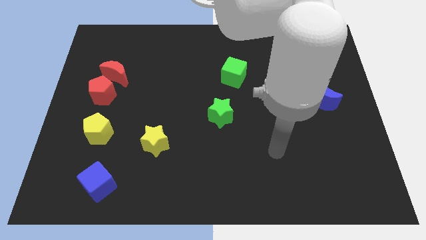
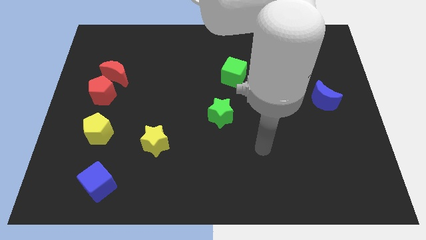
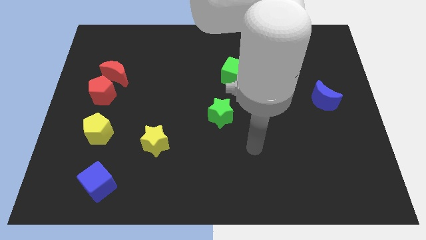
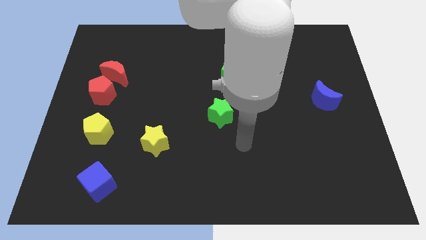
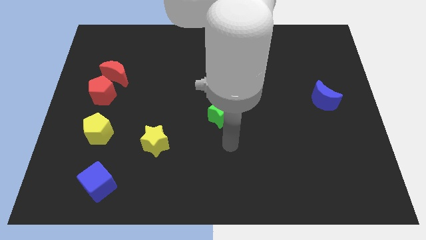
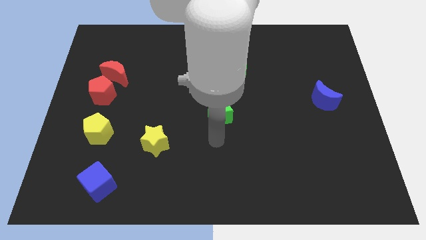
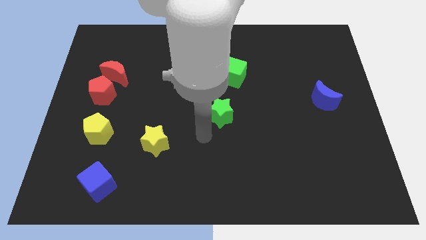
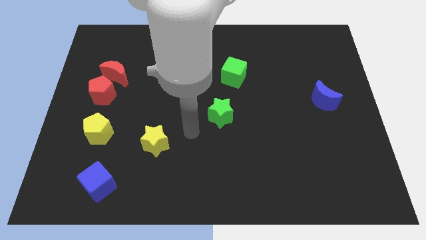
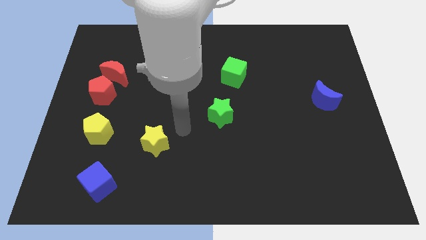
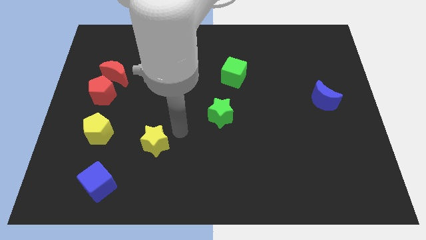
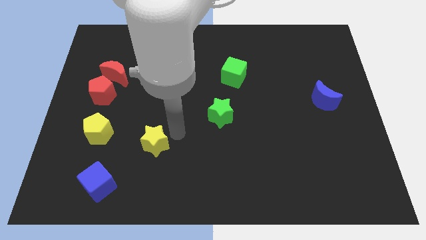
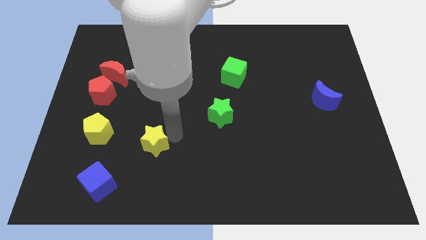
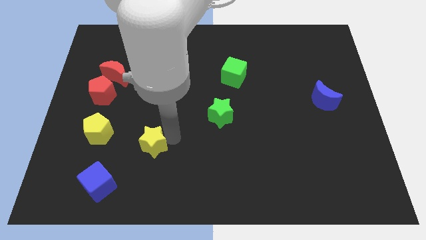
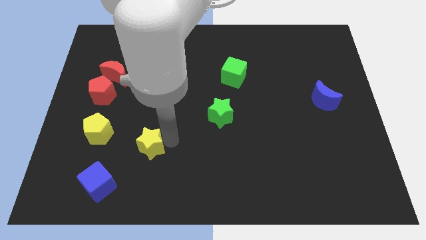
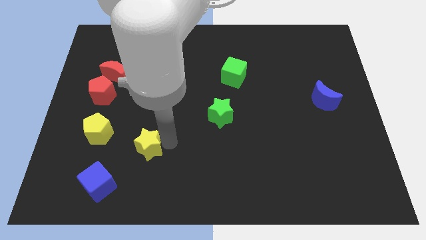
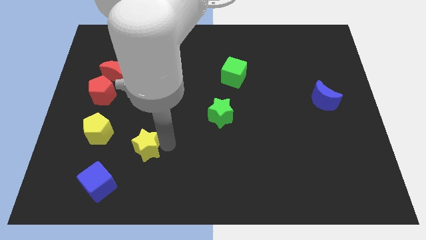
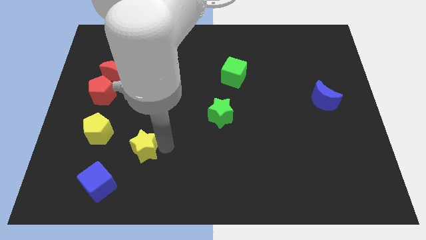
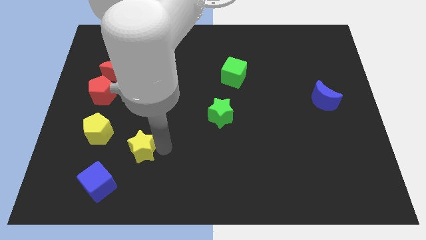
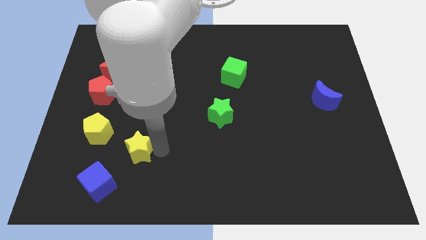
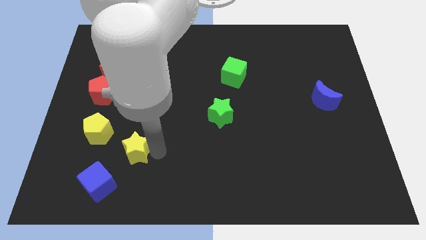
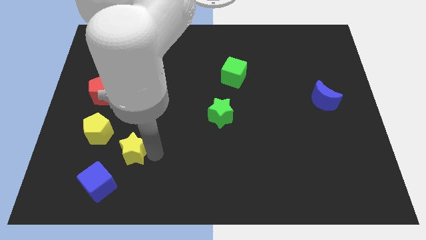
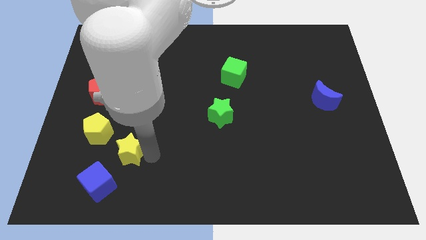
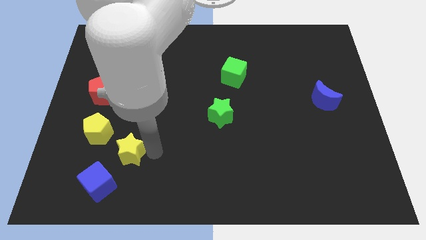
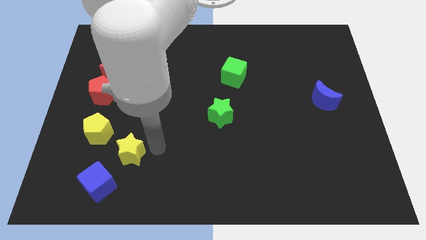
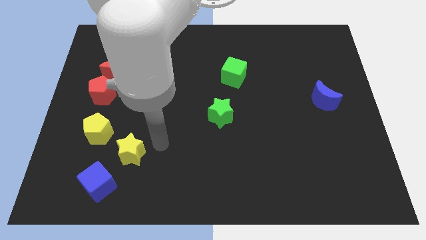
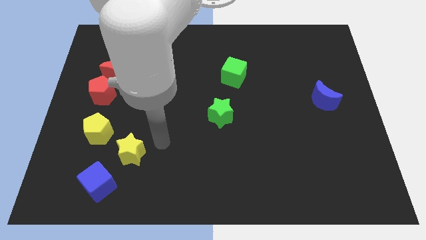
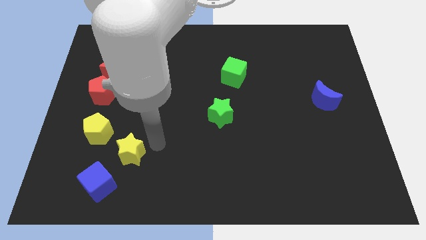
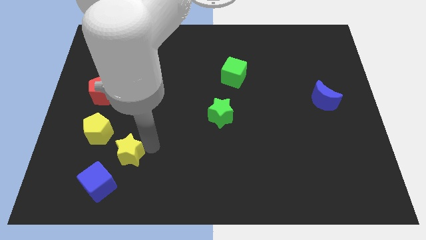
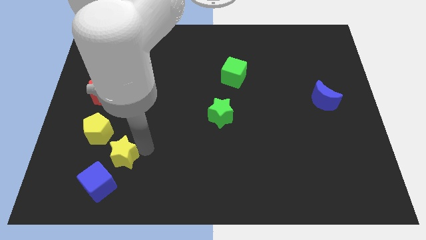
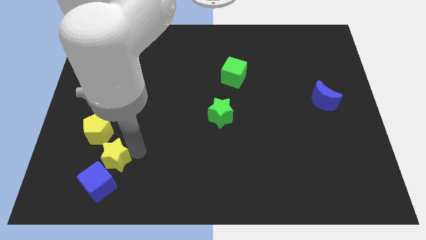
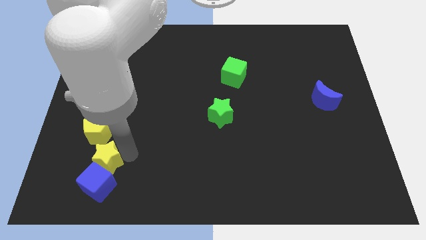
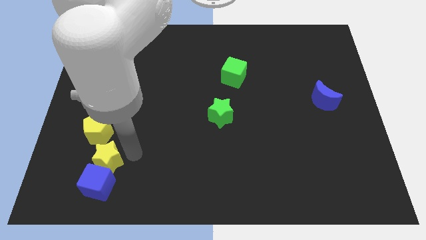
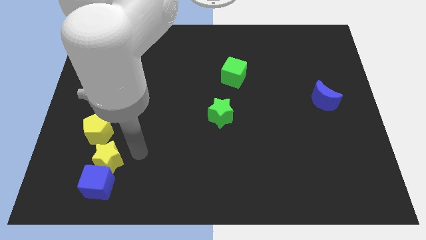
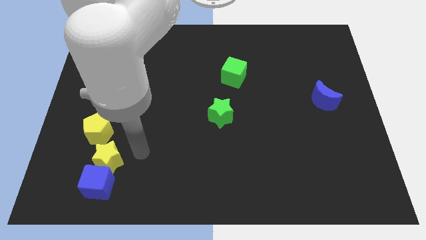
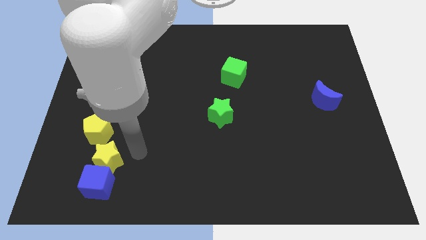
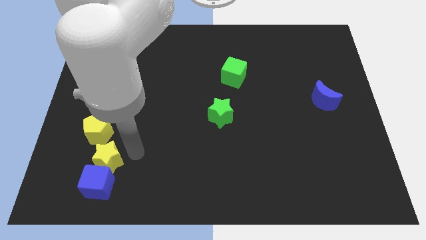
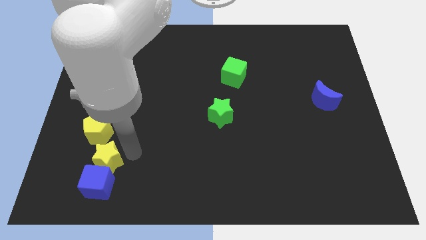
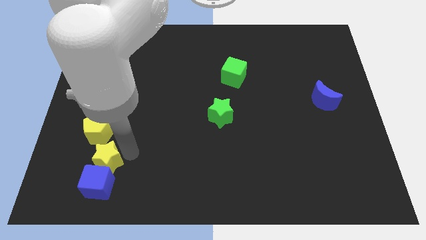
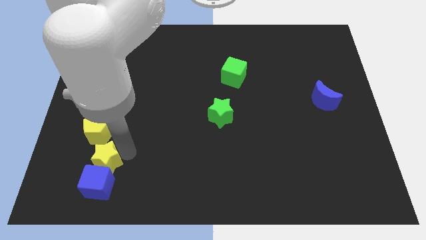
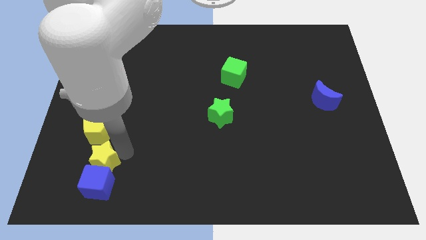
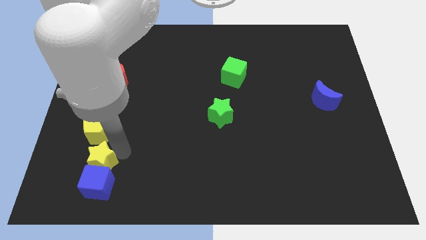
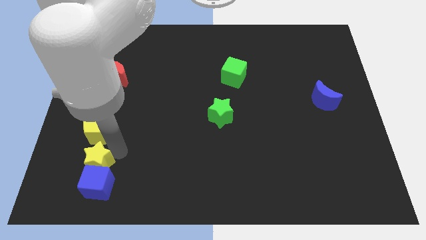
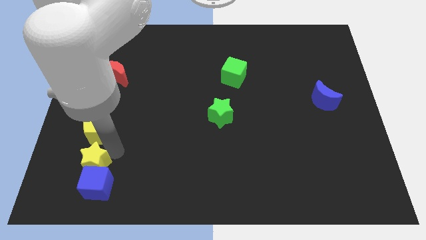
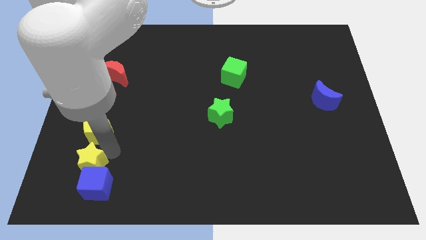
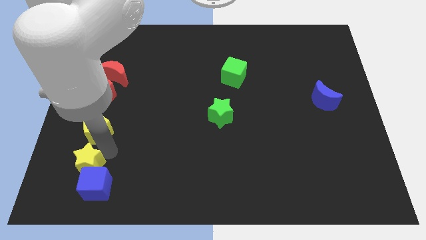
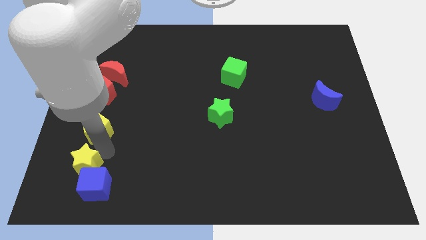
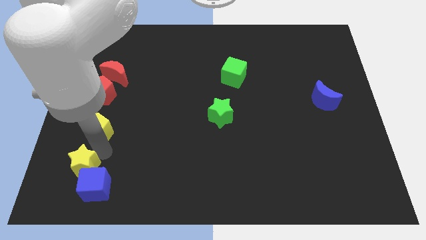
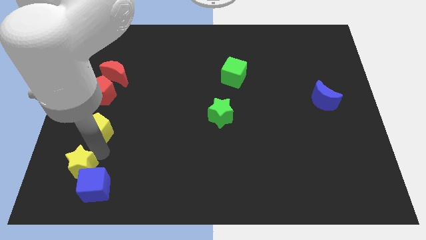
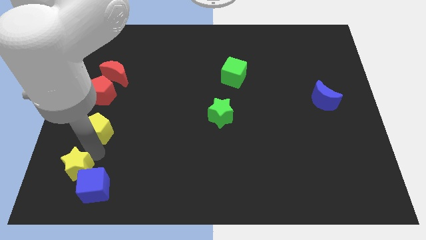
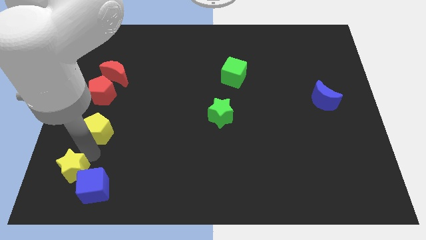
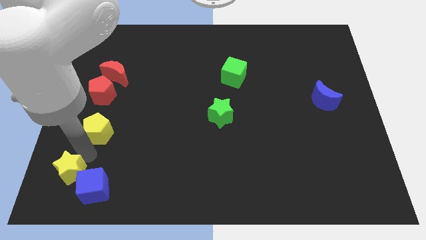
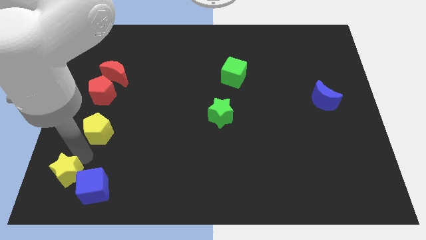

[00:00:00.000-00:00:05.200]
slide the yellow star to the bottom left

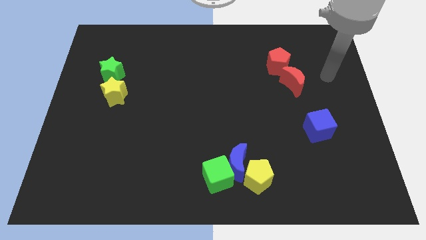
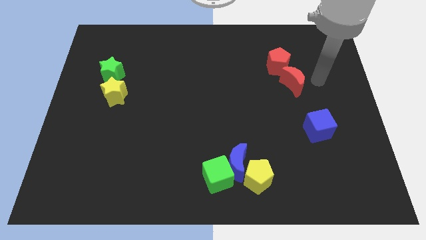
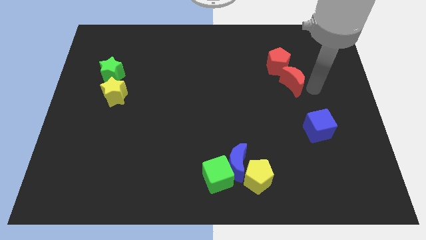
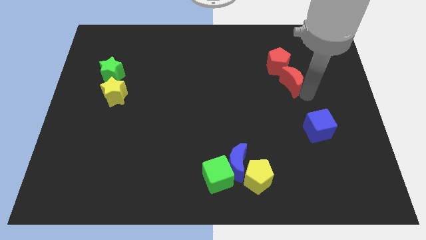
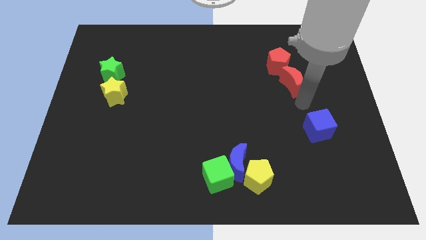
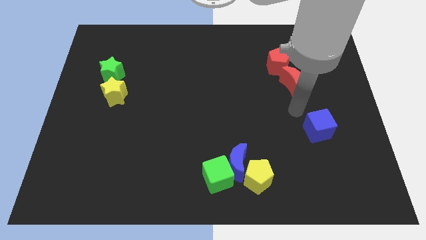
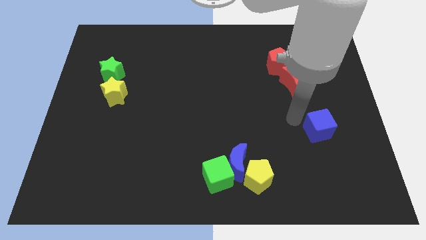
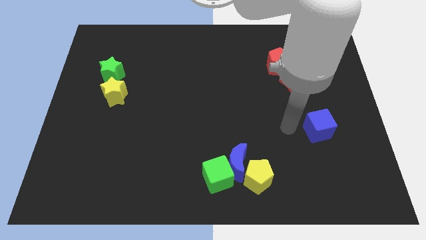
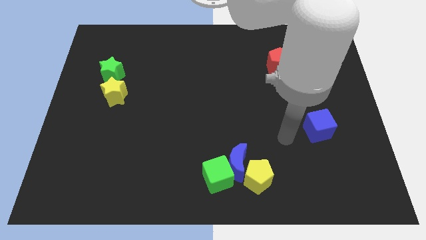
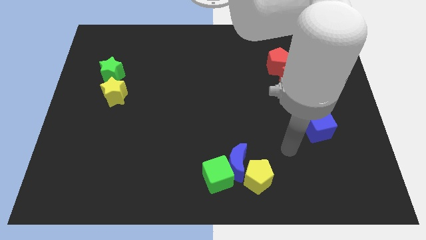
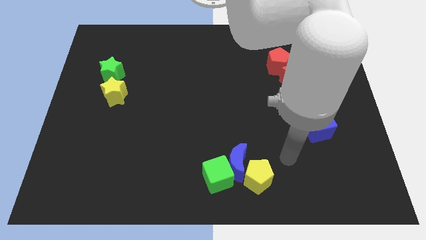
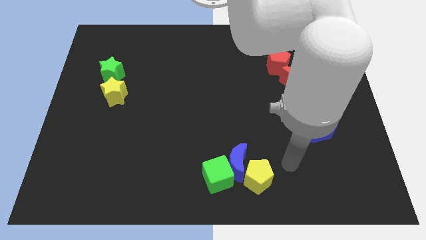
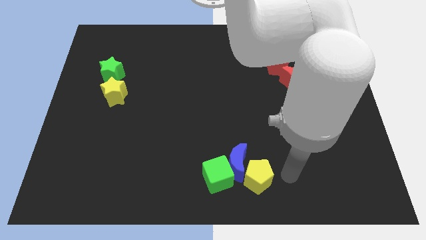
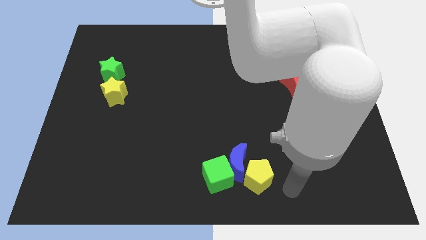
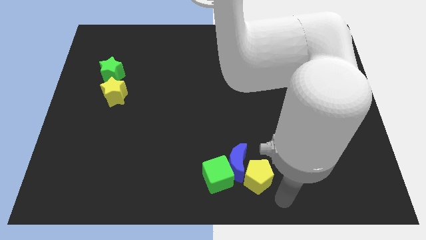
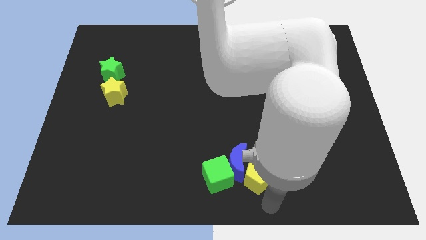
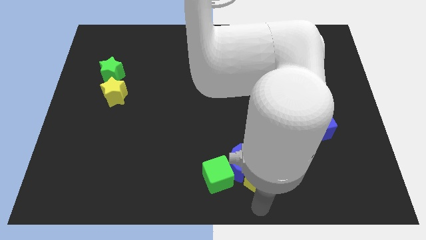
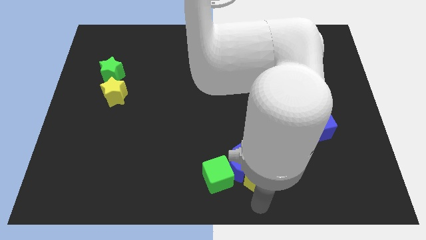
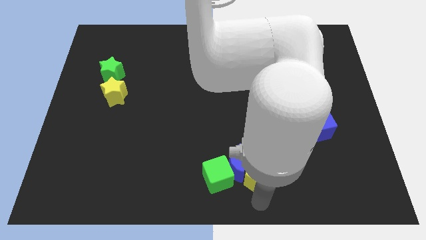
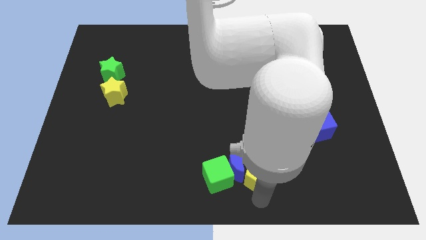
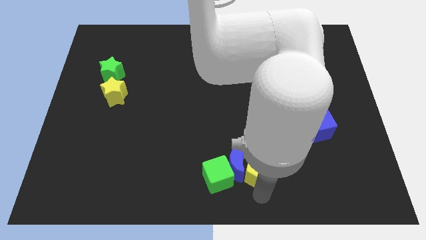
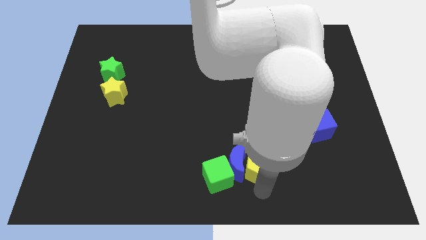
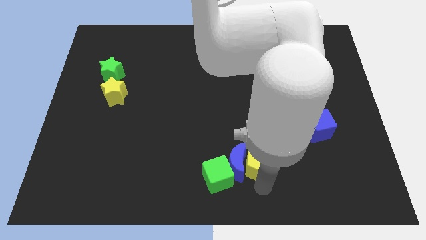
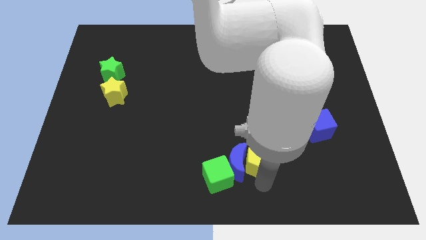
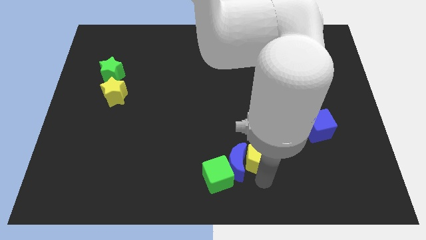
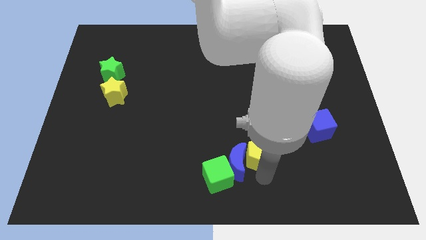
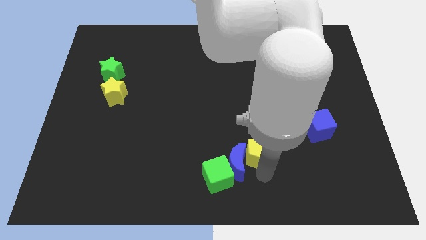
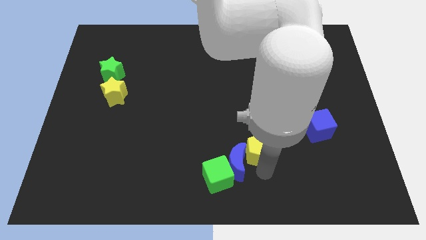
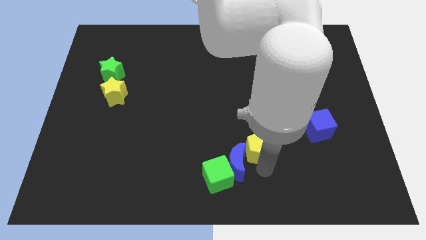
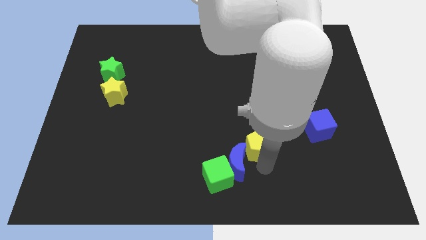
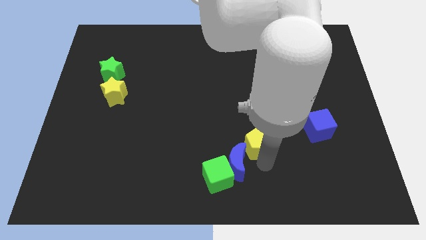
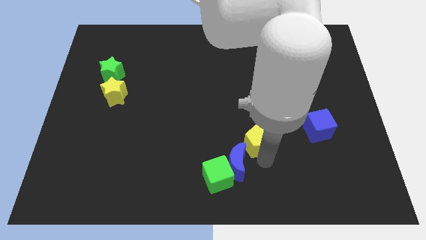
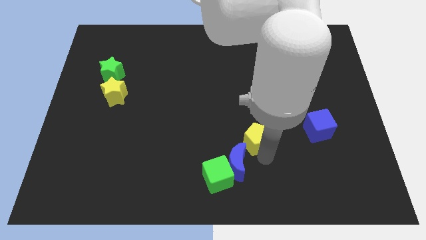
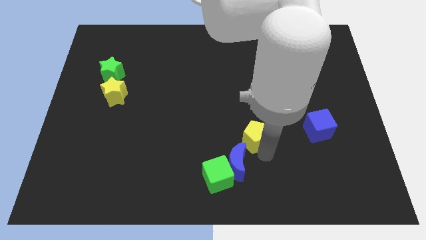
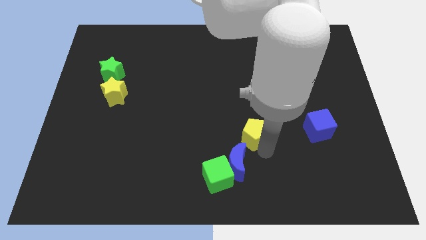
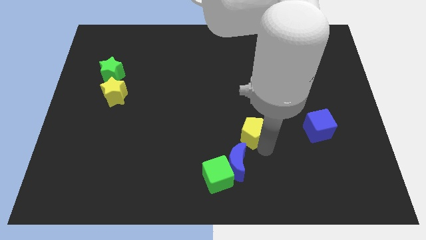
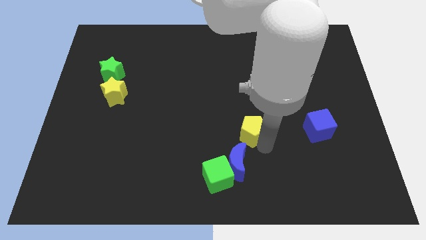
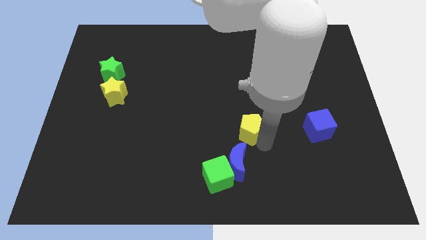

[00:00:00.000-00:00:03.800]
put the yellow pentagon to the center of the board
